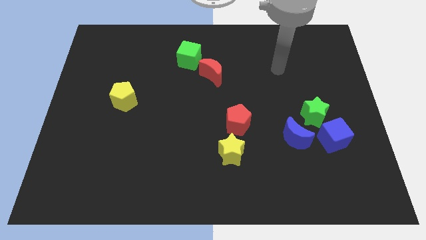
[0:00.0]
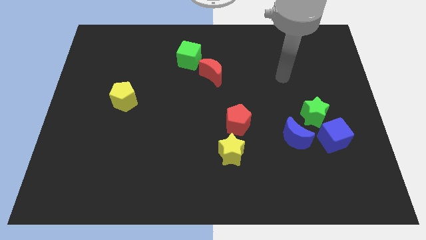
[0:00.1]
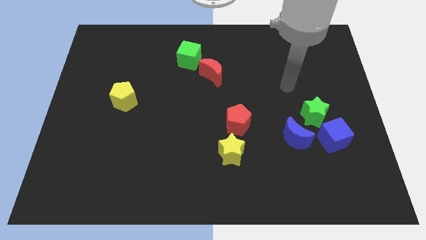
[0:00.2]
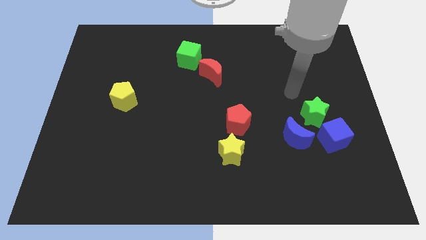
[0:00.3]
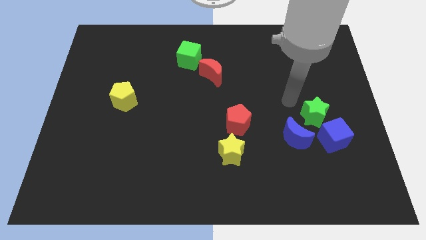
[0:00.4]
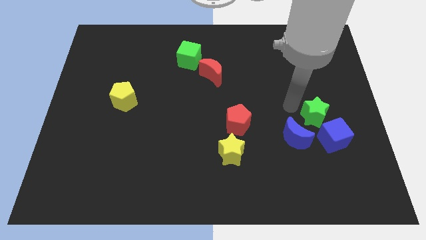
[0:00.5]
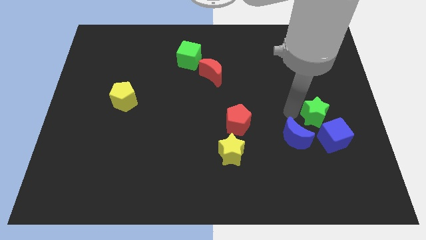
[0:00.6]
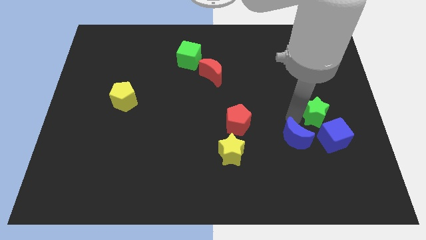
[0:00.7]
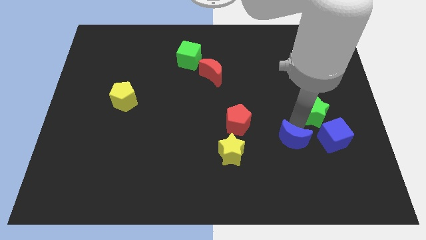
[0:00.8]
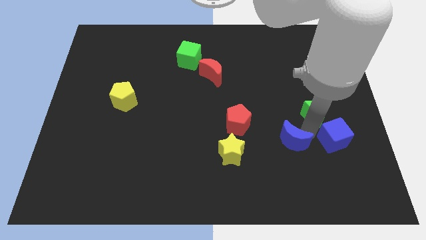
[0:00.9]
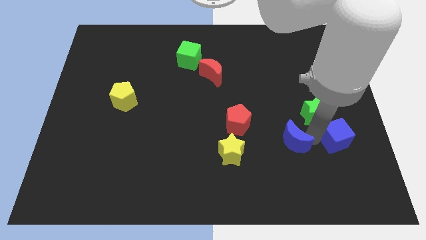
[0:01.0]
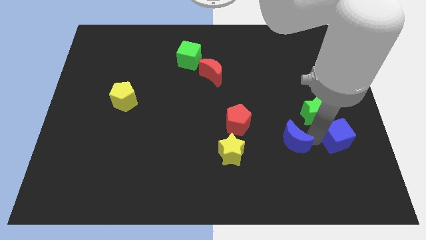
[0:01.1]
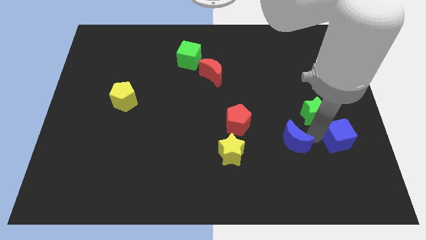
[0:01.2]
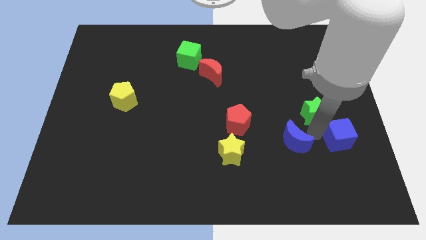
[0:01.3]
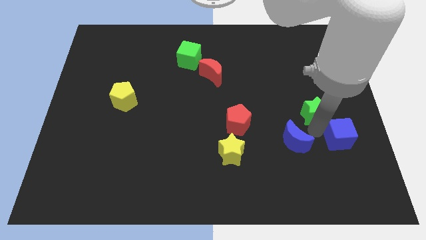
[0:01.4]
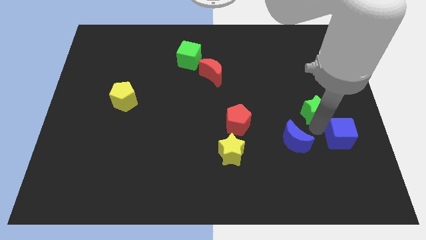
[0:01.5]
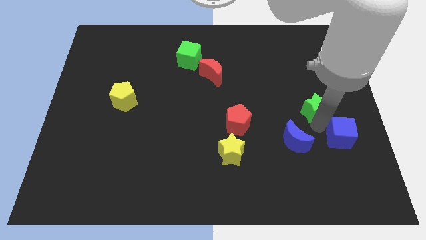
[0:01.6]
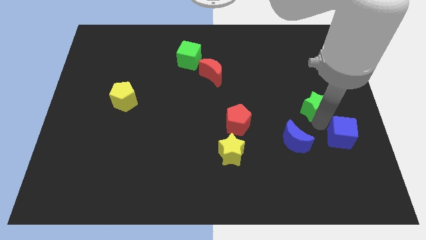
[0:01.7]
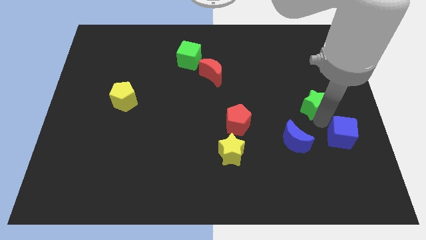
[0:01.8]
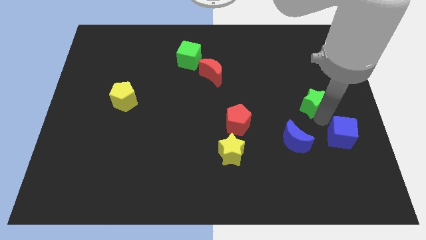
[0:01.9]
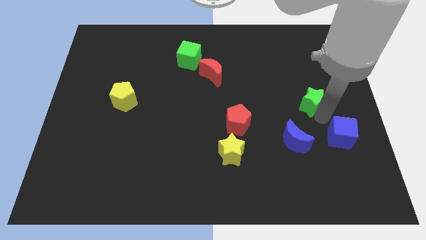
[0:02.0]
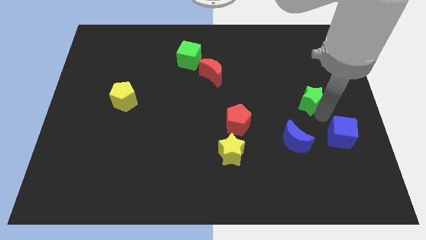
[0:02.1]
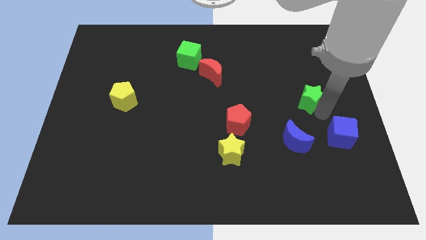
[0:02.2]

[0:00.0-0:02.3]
separate the green star from the blue cube and blue moon

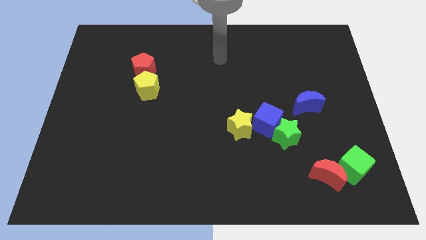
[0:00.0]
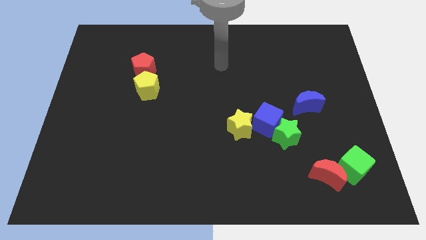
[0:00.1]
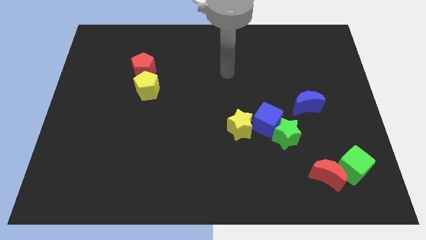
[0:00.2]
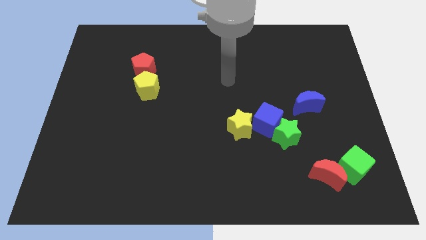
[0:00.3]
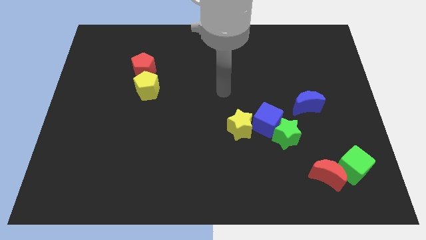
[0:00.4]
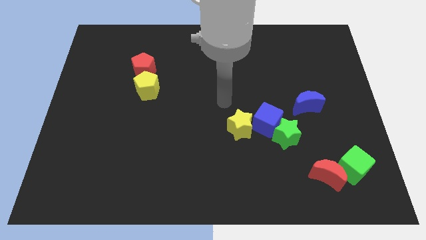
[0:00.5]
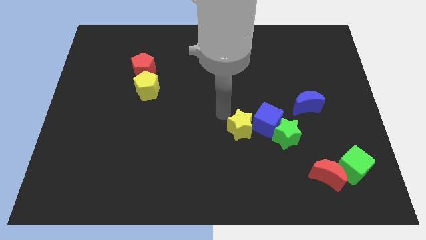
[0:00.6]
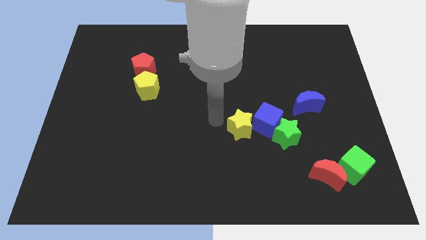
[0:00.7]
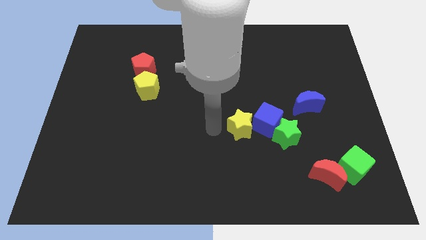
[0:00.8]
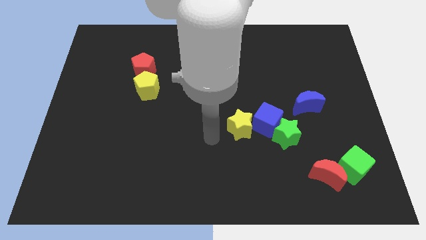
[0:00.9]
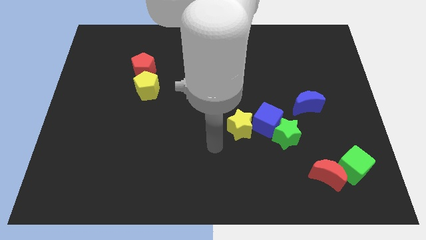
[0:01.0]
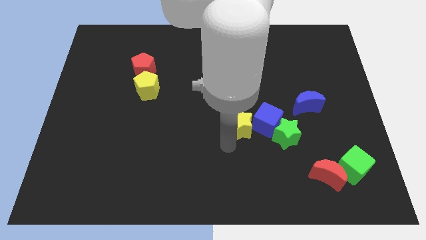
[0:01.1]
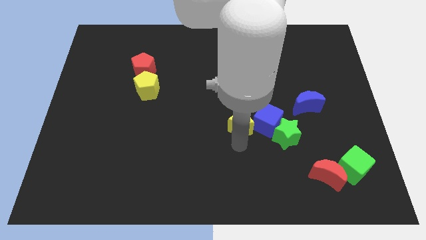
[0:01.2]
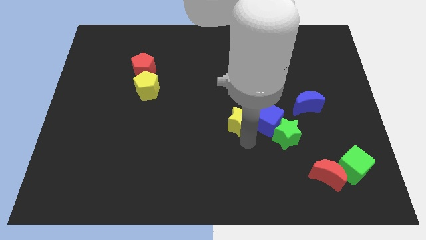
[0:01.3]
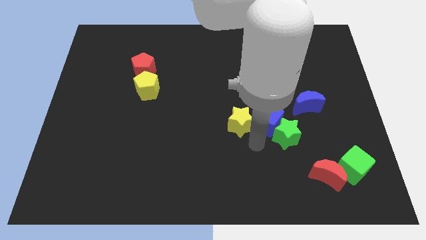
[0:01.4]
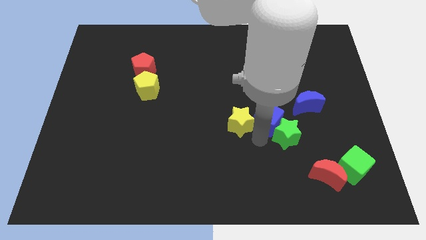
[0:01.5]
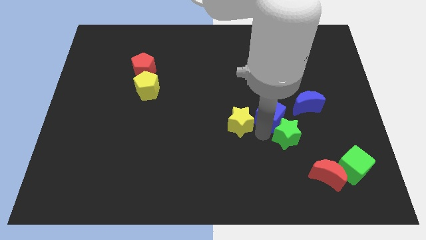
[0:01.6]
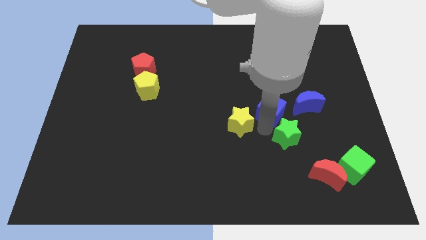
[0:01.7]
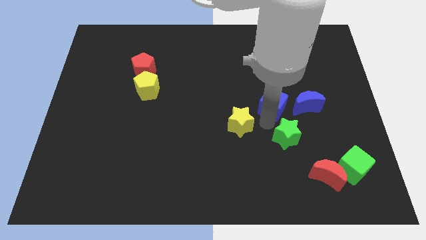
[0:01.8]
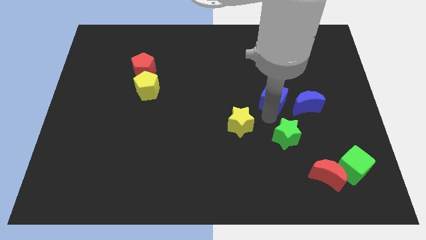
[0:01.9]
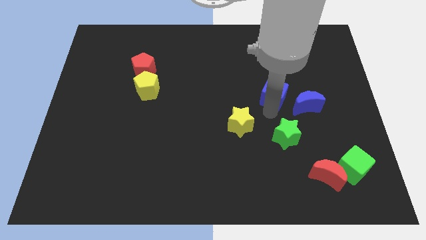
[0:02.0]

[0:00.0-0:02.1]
separate the blue cube from the green star and yellow star

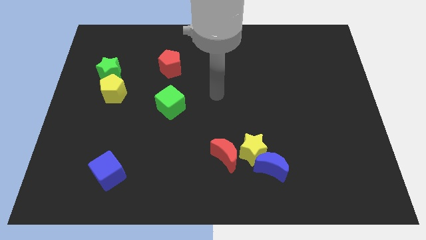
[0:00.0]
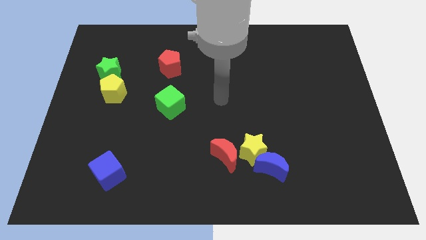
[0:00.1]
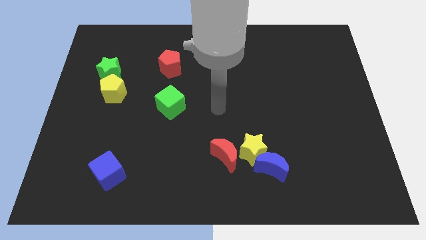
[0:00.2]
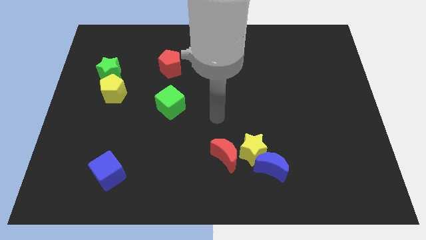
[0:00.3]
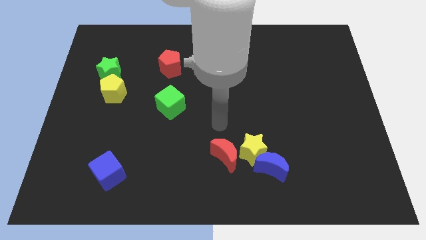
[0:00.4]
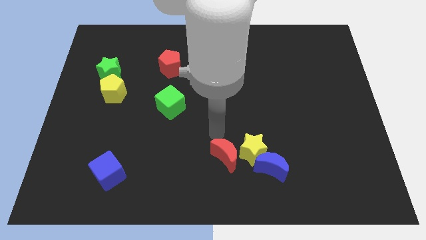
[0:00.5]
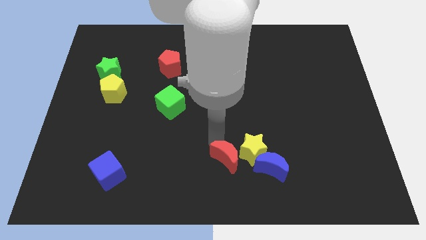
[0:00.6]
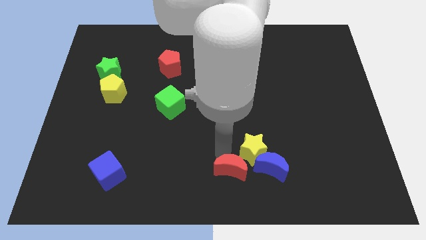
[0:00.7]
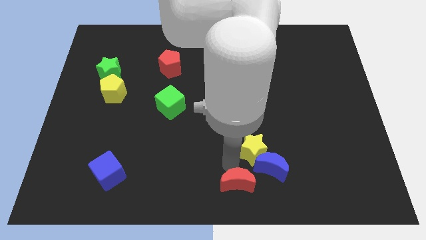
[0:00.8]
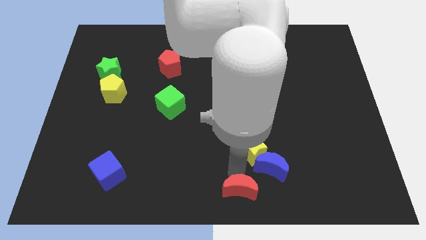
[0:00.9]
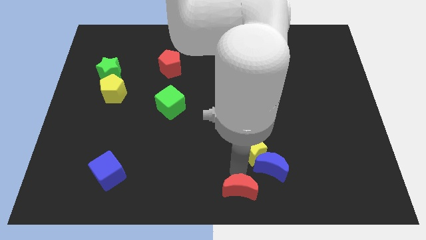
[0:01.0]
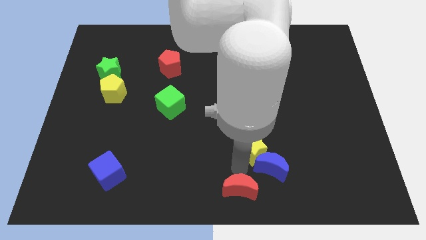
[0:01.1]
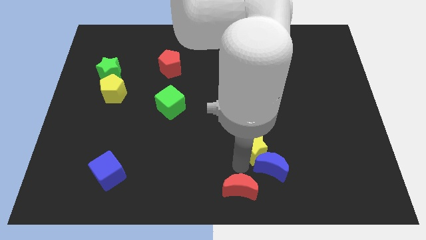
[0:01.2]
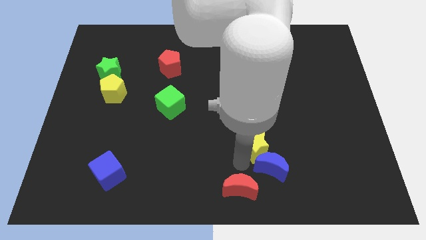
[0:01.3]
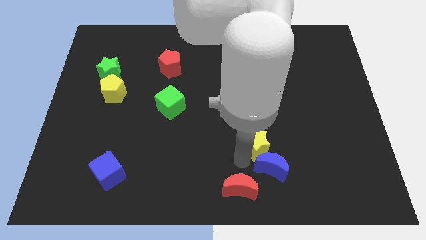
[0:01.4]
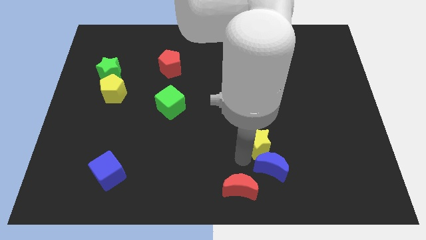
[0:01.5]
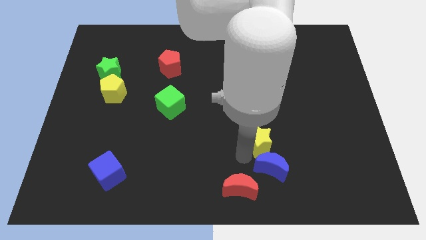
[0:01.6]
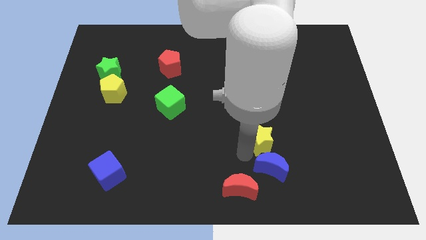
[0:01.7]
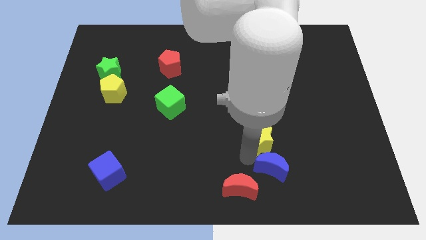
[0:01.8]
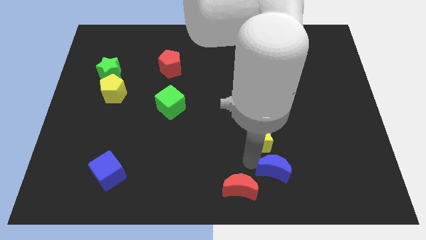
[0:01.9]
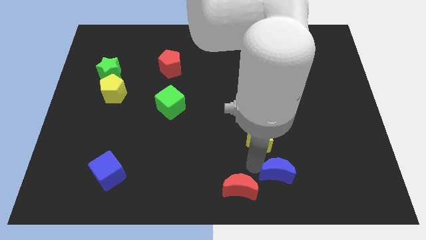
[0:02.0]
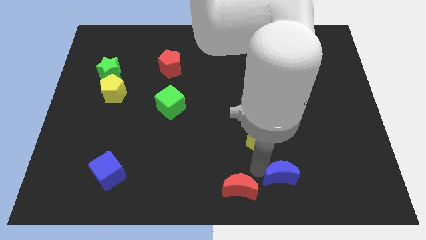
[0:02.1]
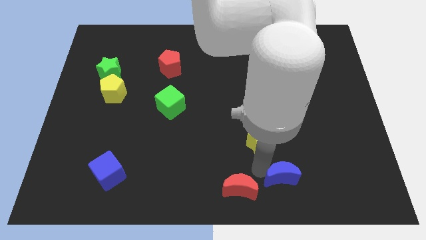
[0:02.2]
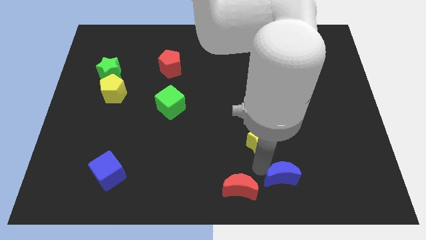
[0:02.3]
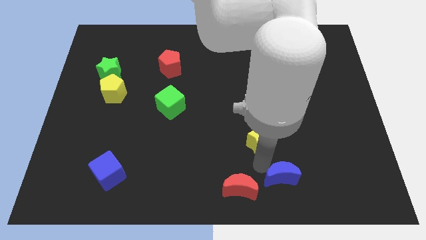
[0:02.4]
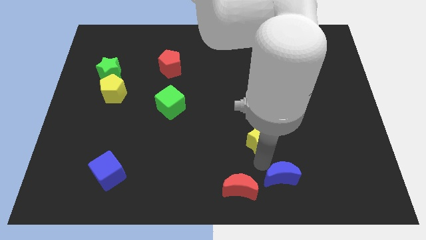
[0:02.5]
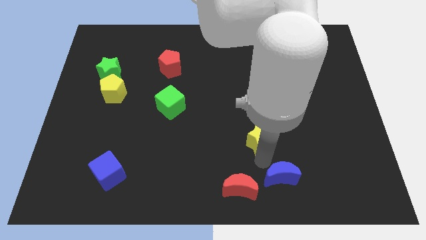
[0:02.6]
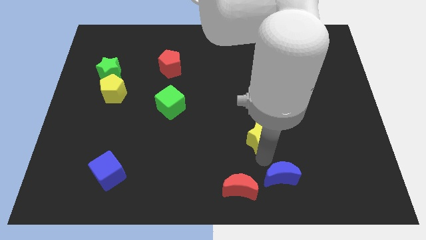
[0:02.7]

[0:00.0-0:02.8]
pull the yellow star apart from the blue moon and red moon

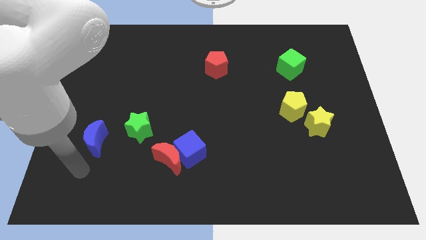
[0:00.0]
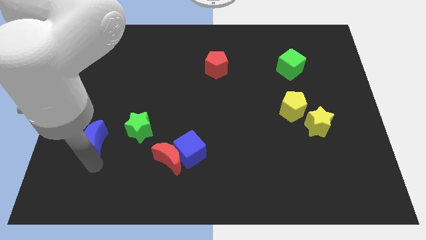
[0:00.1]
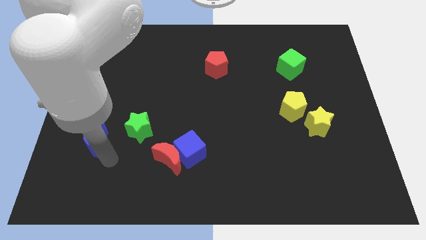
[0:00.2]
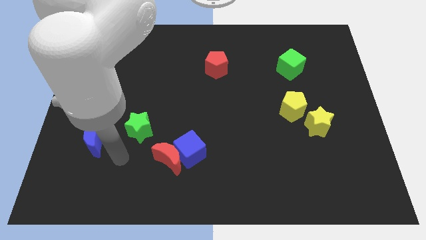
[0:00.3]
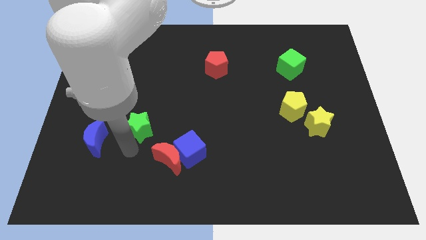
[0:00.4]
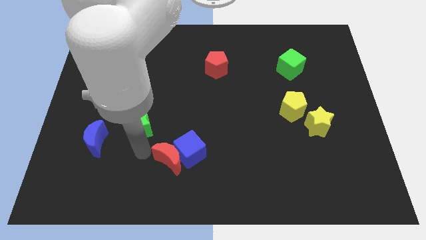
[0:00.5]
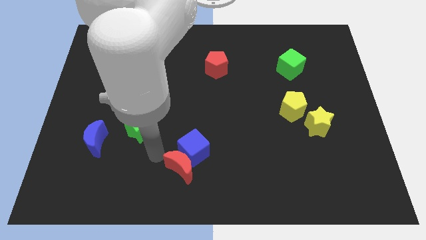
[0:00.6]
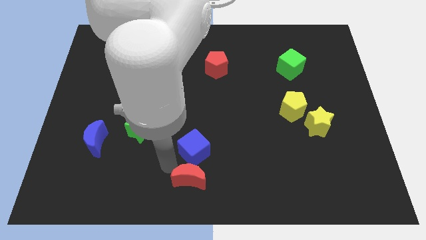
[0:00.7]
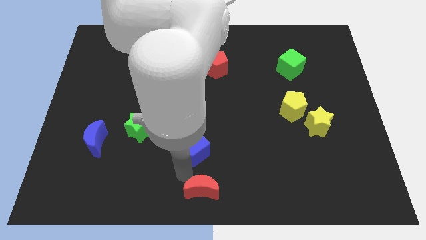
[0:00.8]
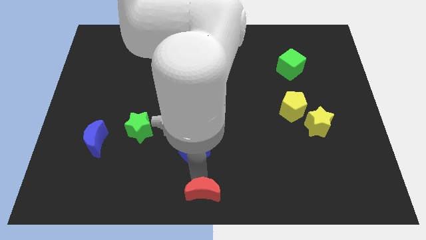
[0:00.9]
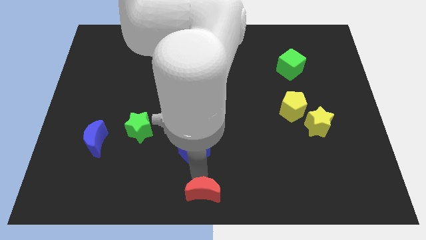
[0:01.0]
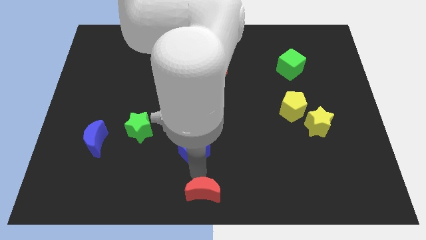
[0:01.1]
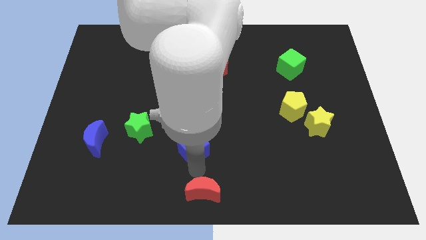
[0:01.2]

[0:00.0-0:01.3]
pull the blue cube apart from the red moon

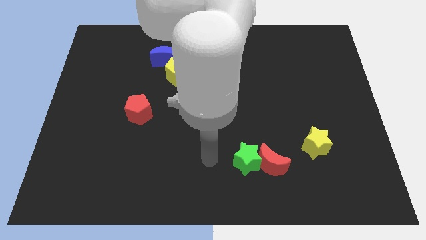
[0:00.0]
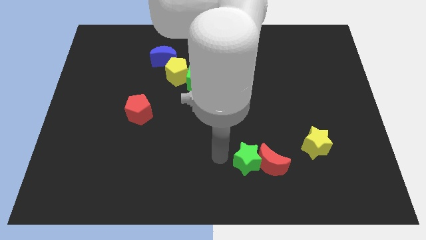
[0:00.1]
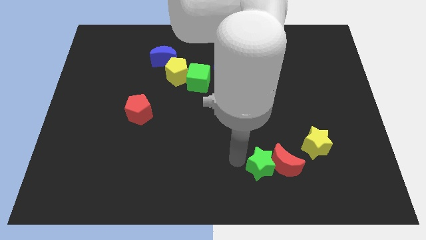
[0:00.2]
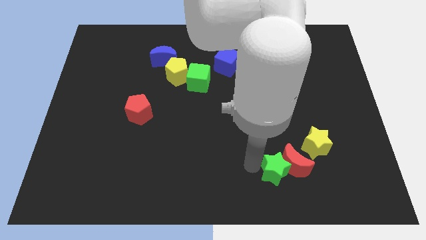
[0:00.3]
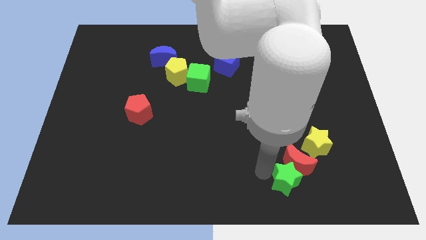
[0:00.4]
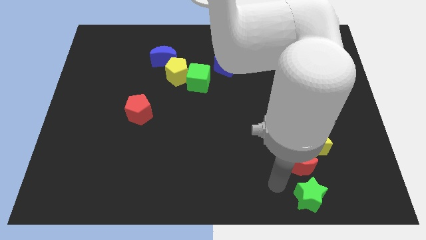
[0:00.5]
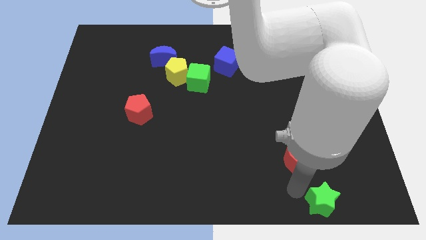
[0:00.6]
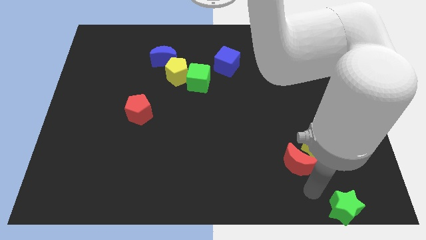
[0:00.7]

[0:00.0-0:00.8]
separate the red moon from the green star
